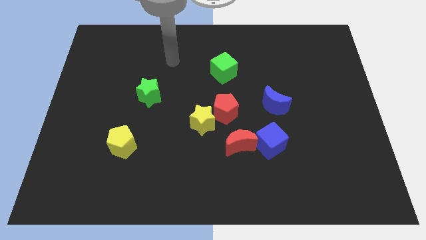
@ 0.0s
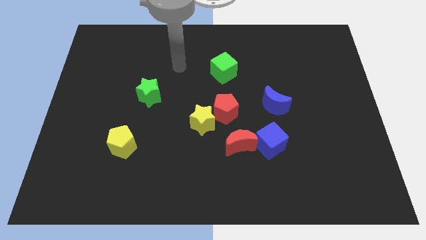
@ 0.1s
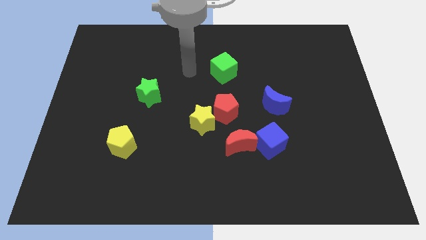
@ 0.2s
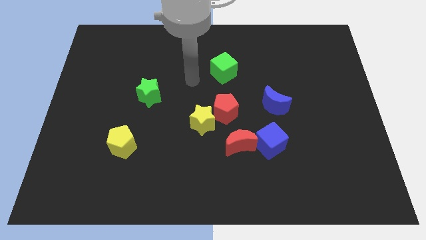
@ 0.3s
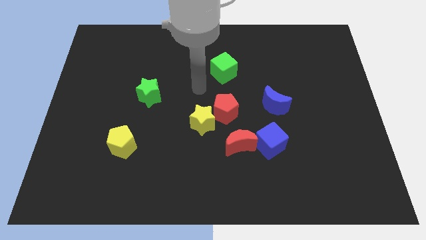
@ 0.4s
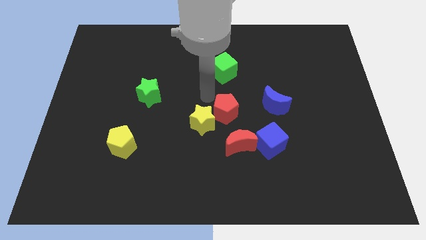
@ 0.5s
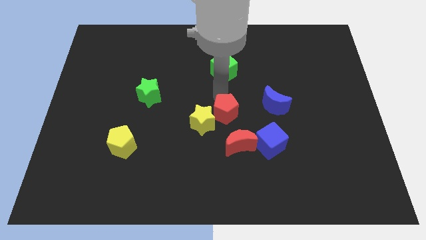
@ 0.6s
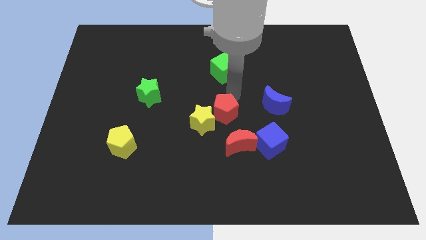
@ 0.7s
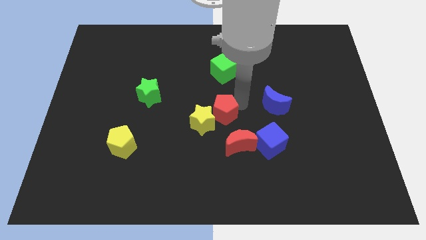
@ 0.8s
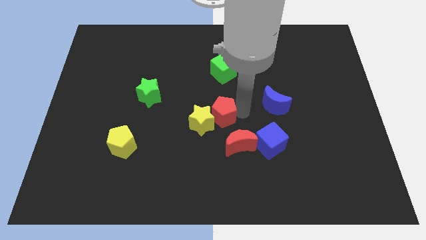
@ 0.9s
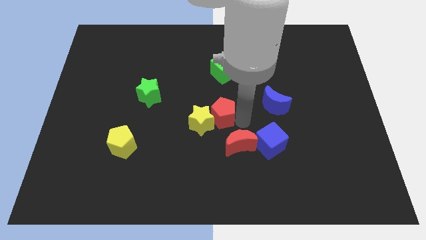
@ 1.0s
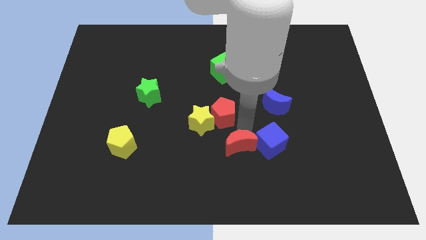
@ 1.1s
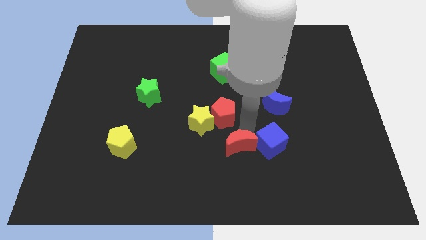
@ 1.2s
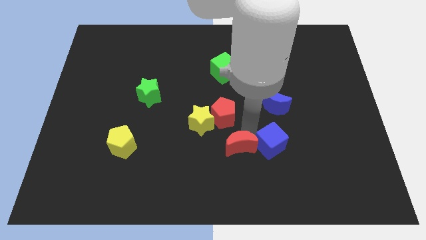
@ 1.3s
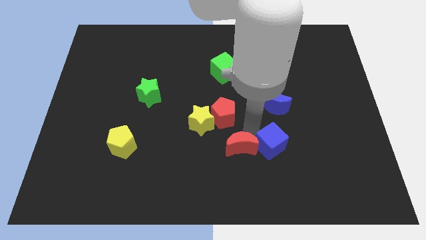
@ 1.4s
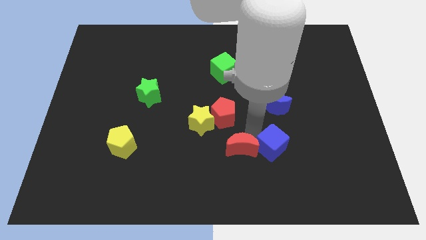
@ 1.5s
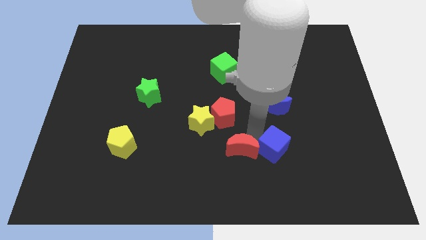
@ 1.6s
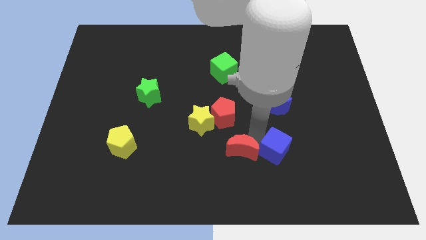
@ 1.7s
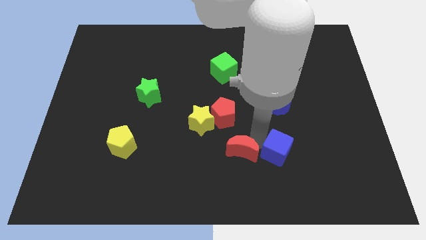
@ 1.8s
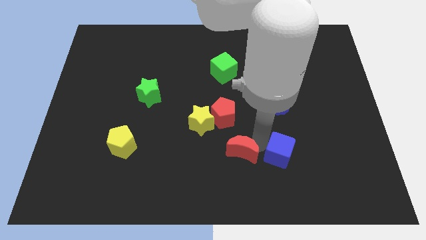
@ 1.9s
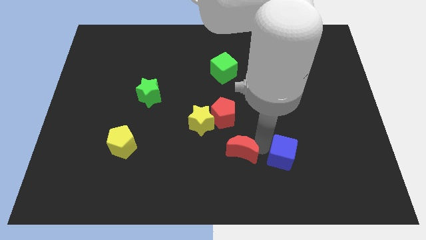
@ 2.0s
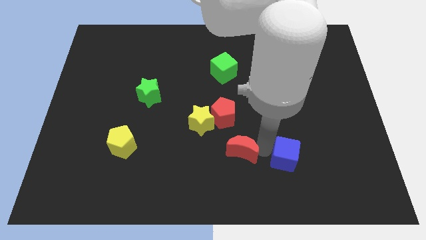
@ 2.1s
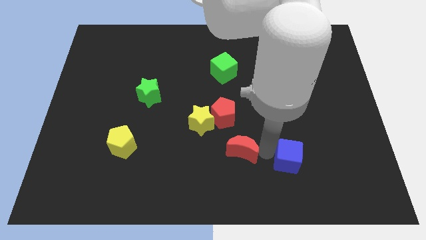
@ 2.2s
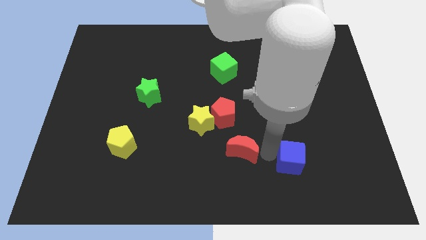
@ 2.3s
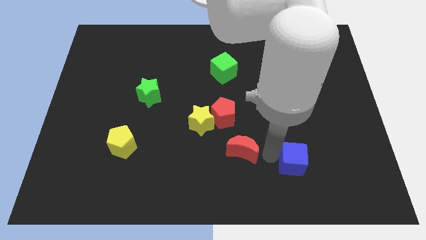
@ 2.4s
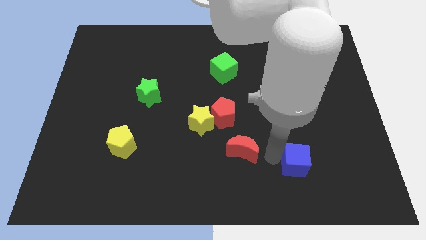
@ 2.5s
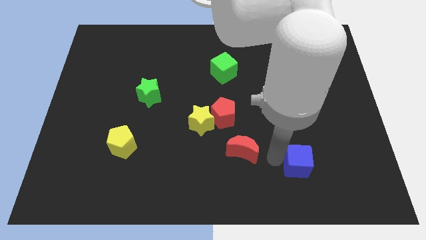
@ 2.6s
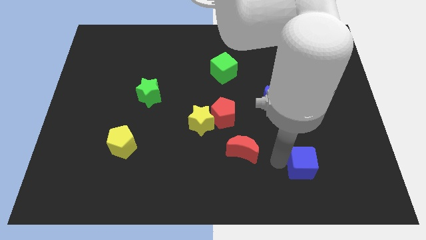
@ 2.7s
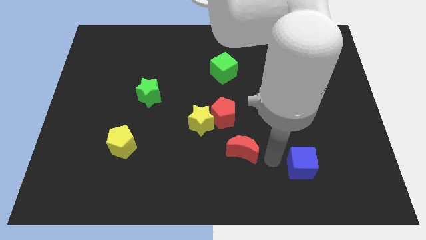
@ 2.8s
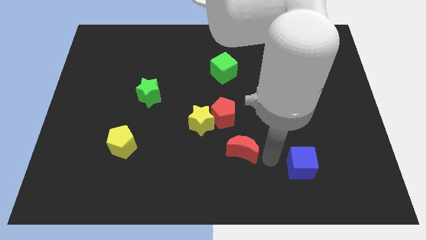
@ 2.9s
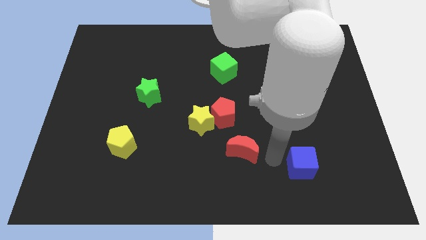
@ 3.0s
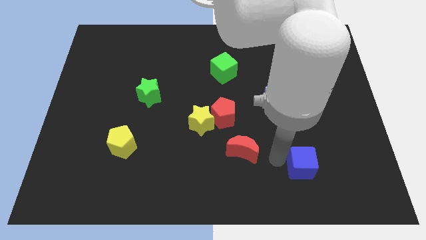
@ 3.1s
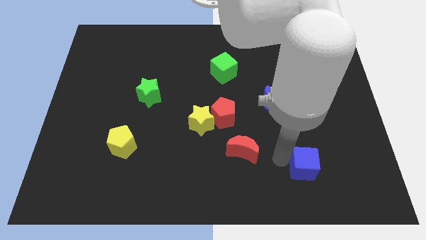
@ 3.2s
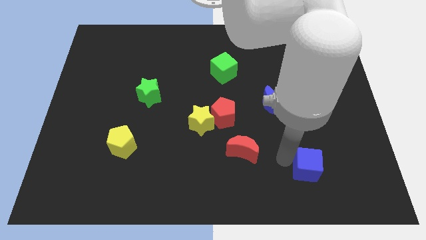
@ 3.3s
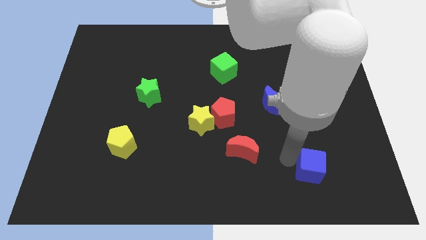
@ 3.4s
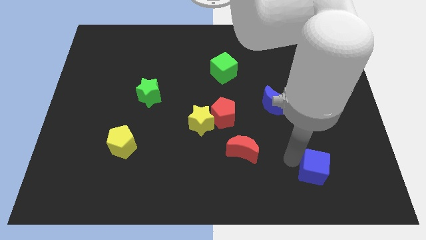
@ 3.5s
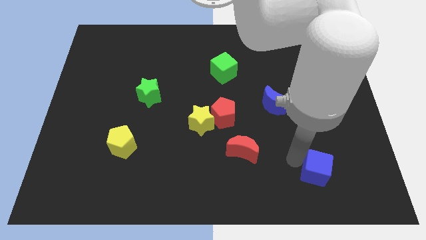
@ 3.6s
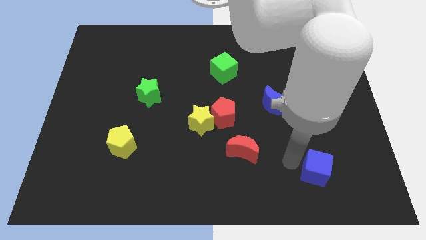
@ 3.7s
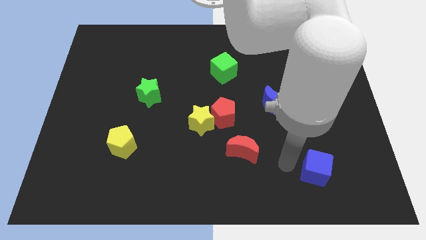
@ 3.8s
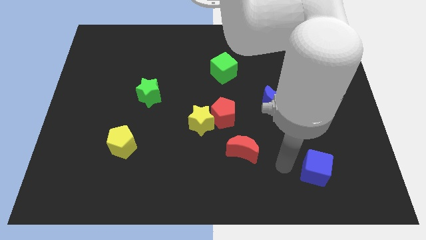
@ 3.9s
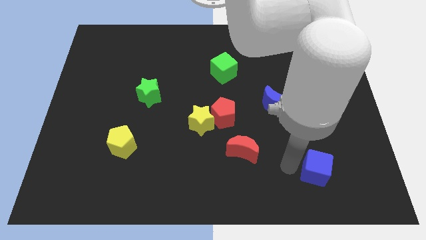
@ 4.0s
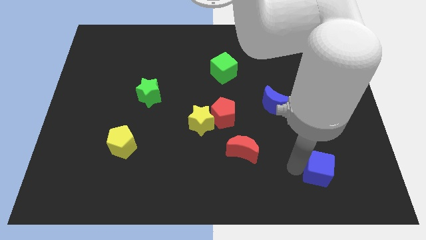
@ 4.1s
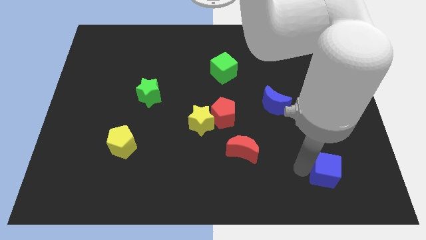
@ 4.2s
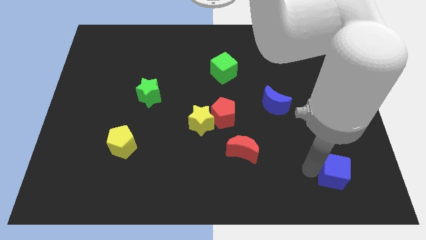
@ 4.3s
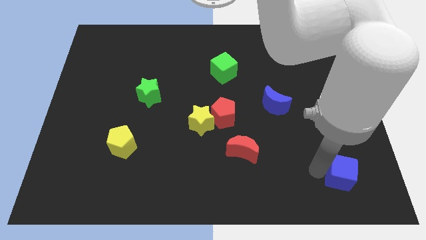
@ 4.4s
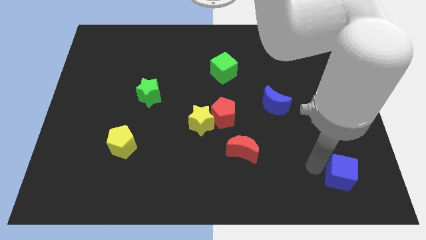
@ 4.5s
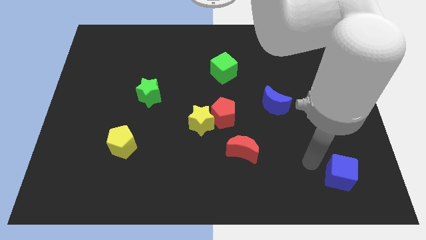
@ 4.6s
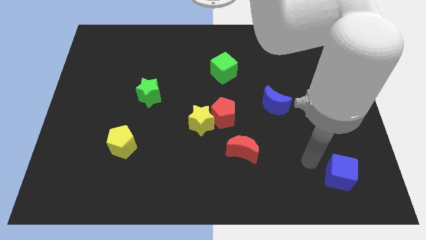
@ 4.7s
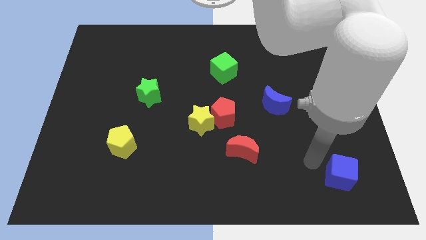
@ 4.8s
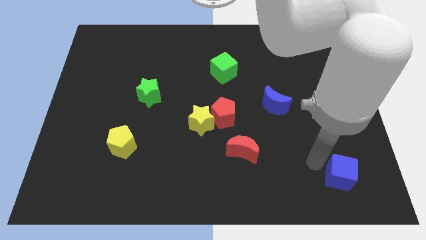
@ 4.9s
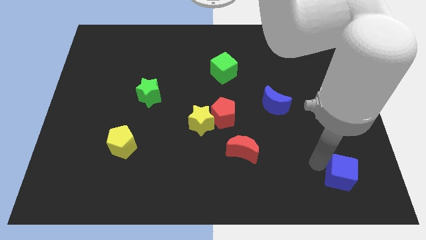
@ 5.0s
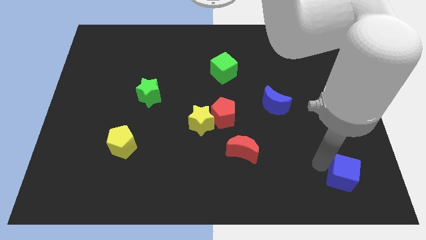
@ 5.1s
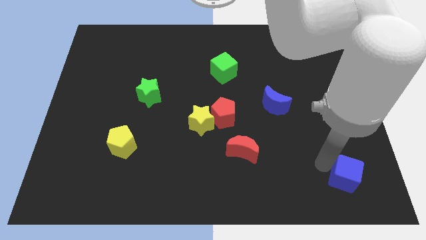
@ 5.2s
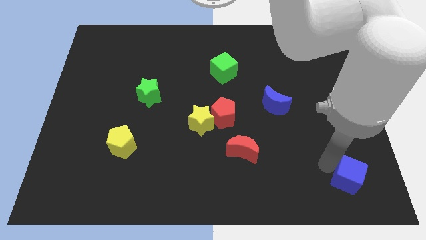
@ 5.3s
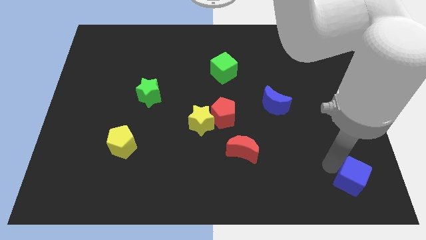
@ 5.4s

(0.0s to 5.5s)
push the blue cube to the bottom right corner

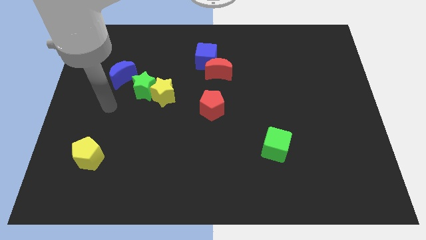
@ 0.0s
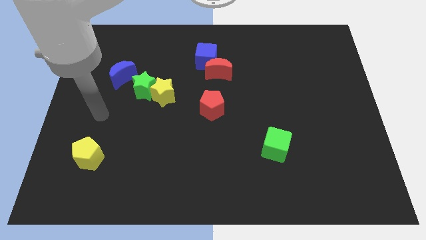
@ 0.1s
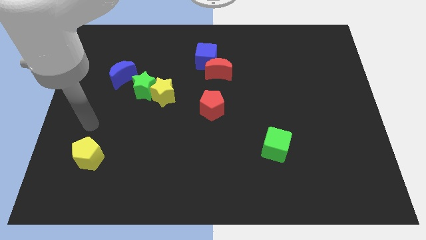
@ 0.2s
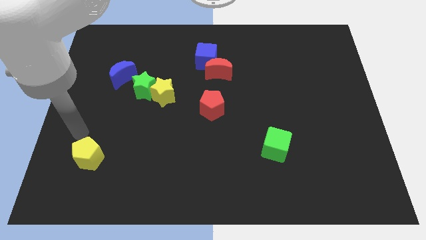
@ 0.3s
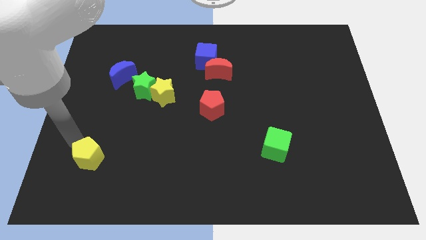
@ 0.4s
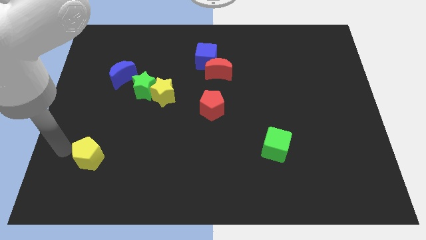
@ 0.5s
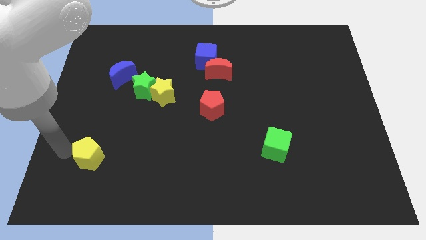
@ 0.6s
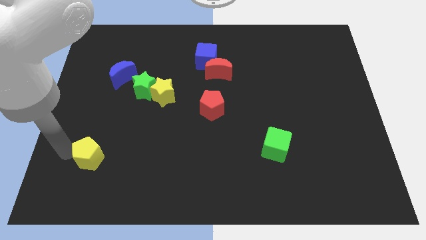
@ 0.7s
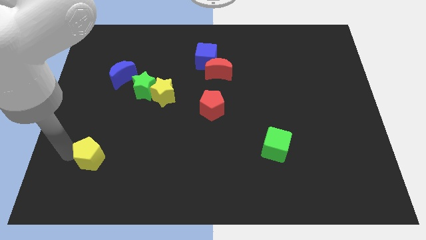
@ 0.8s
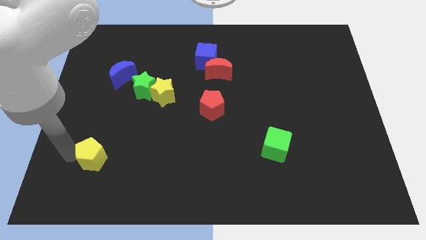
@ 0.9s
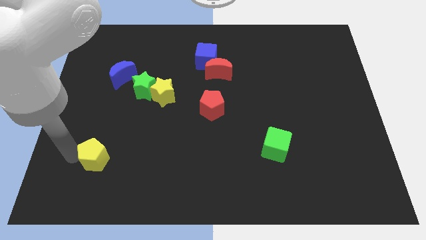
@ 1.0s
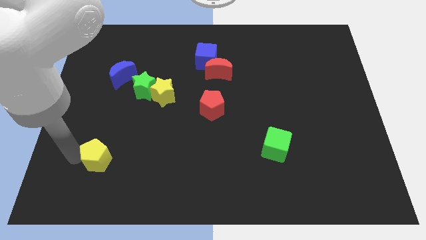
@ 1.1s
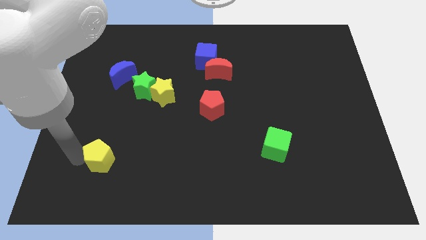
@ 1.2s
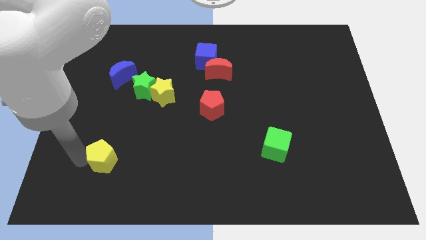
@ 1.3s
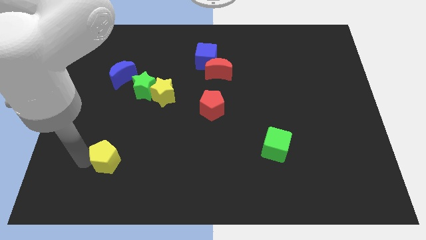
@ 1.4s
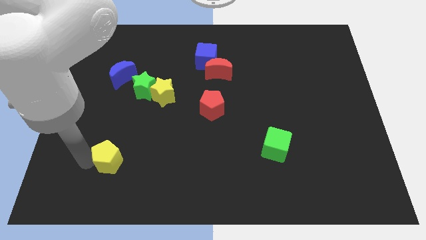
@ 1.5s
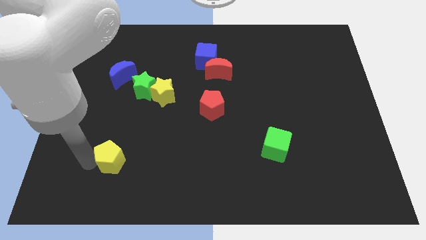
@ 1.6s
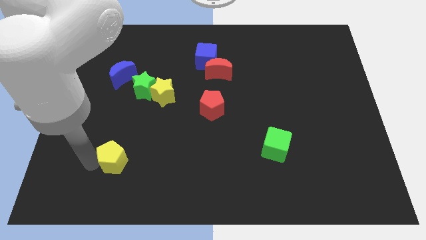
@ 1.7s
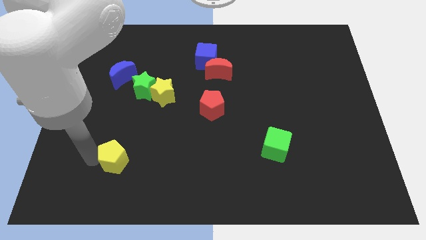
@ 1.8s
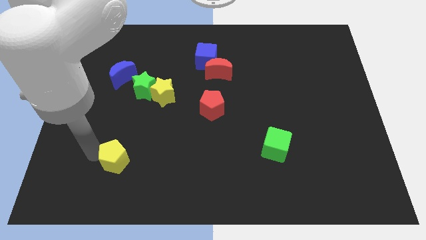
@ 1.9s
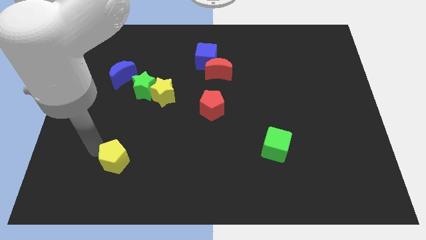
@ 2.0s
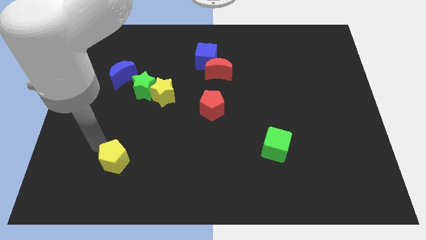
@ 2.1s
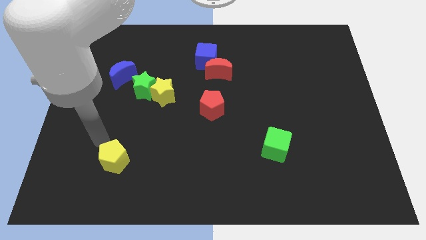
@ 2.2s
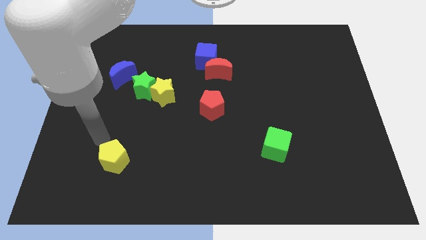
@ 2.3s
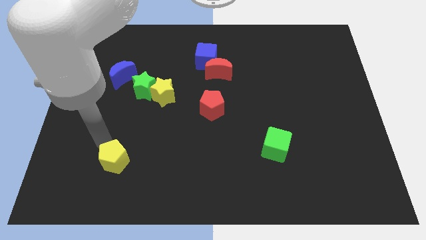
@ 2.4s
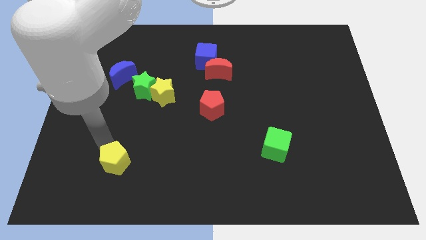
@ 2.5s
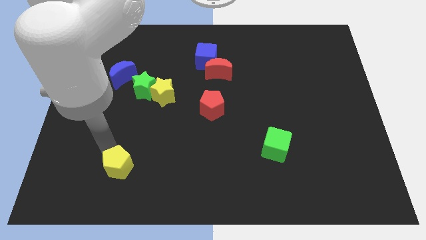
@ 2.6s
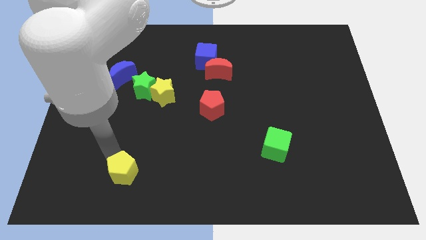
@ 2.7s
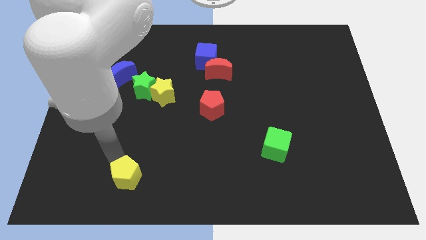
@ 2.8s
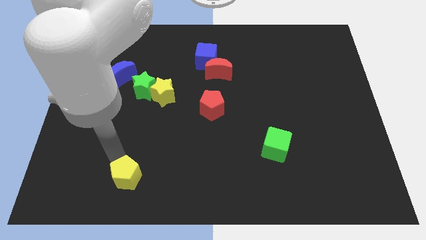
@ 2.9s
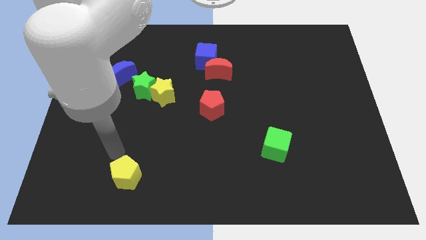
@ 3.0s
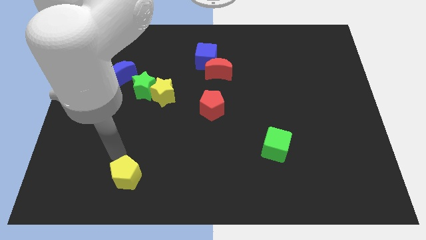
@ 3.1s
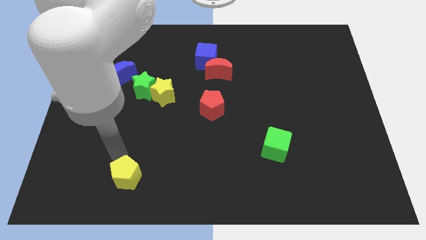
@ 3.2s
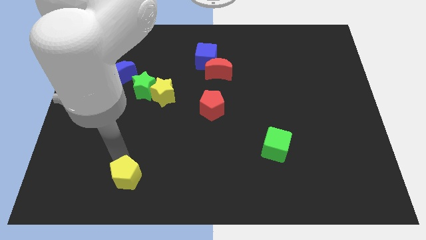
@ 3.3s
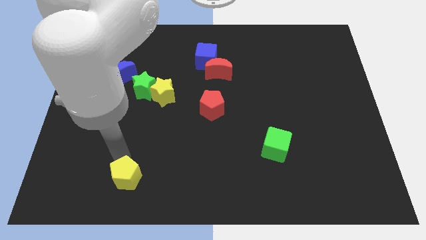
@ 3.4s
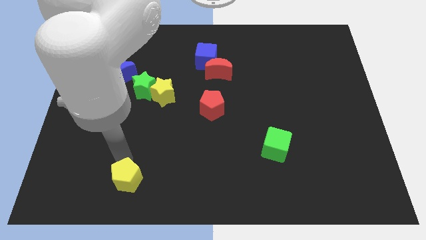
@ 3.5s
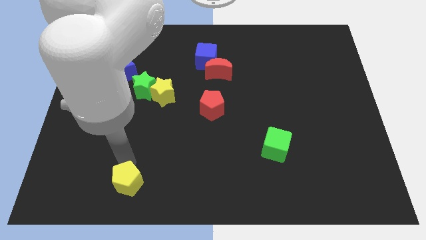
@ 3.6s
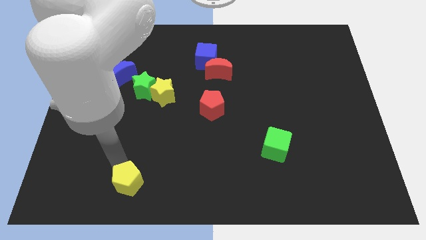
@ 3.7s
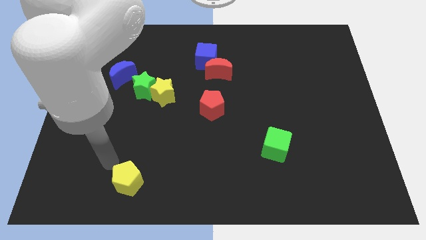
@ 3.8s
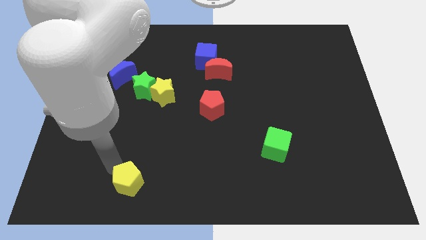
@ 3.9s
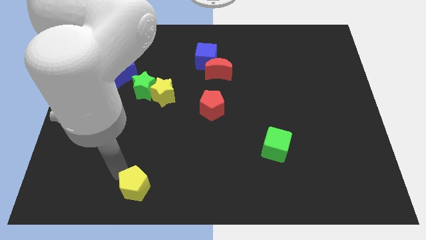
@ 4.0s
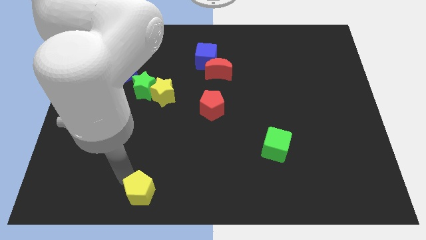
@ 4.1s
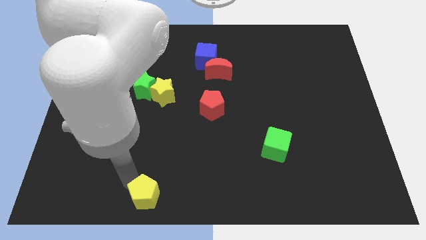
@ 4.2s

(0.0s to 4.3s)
move the yellow pentagon to the bottom side
